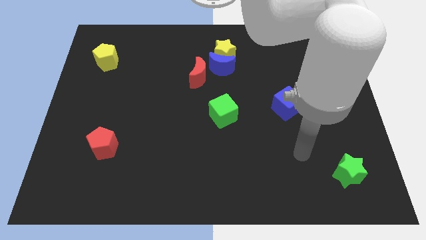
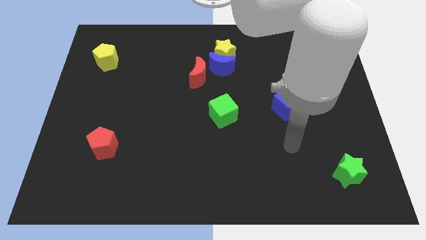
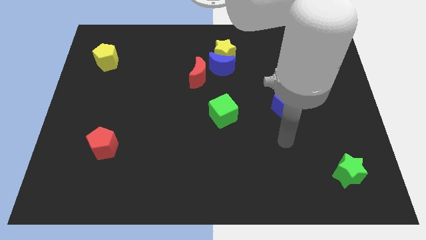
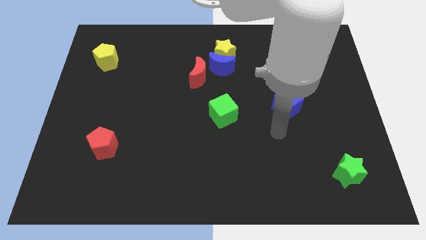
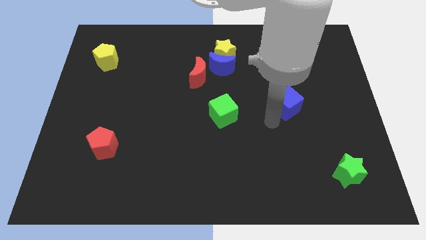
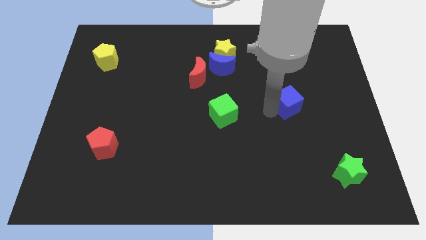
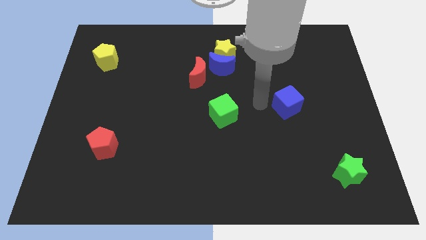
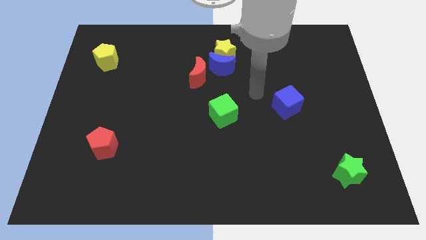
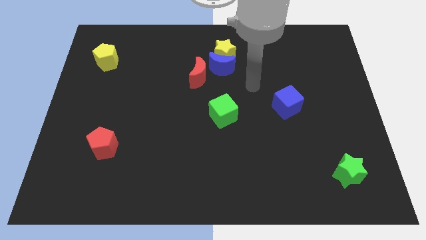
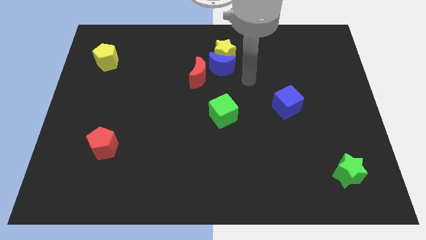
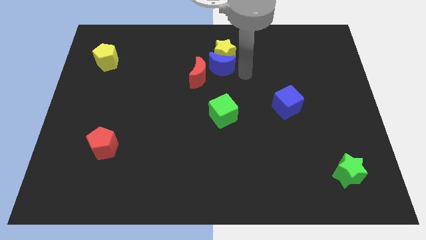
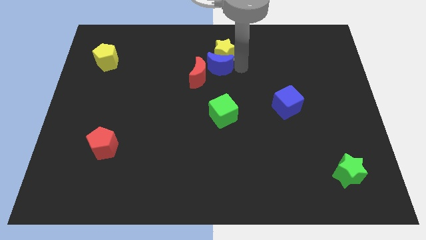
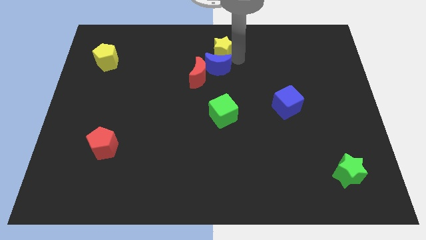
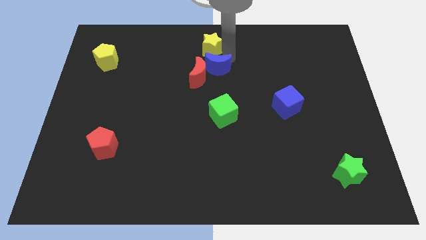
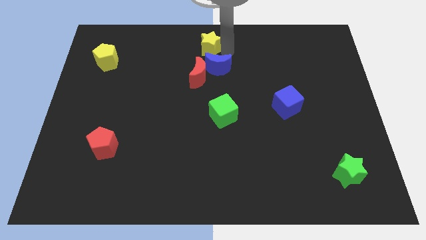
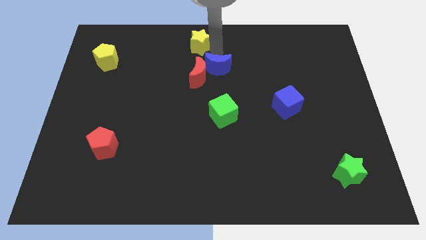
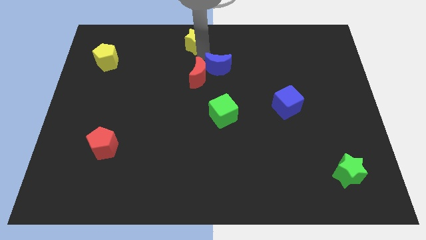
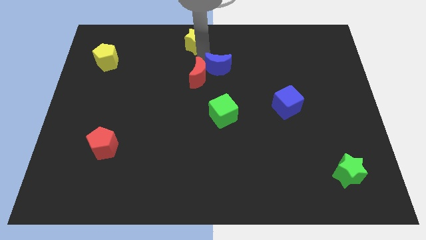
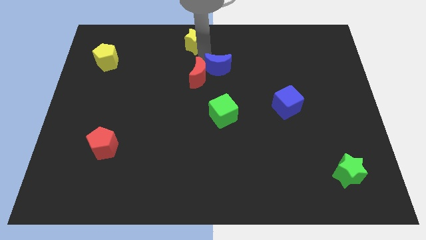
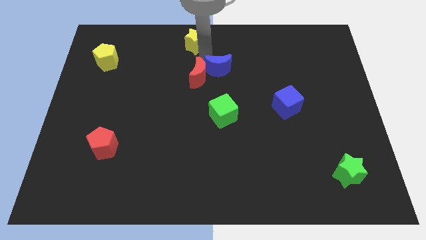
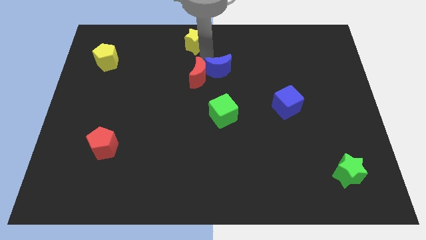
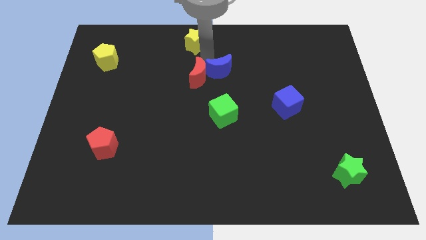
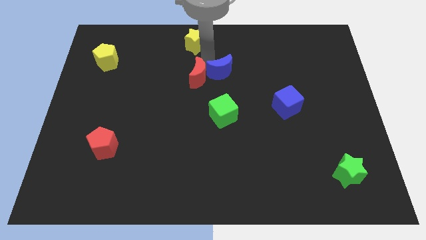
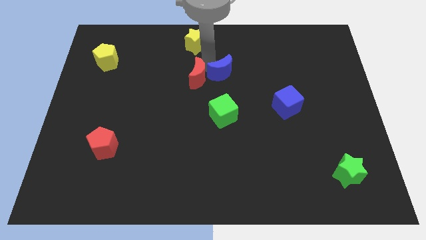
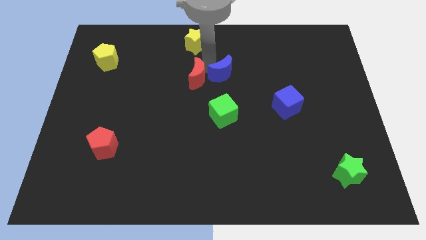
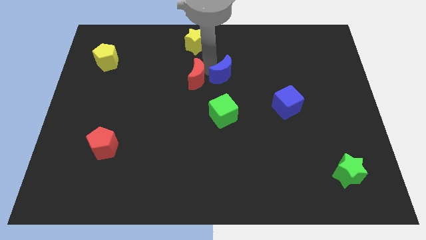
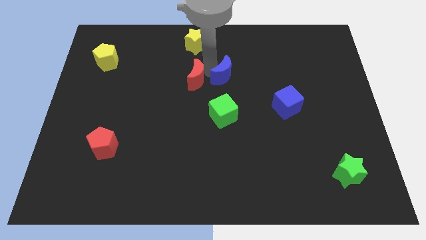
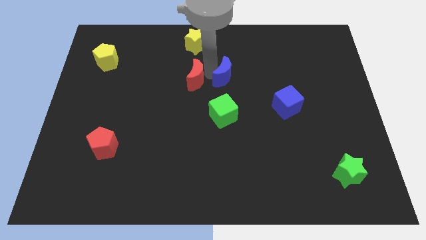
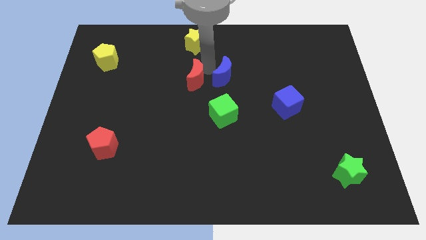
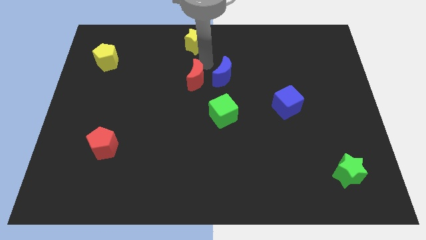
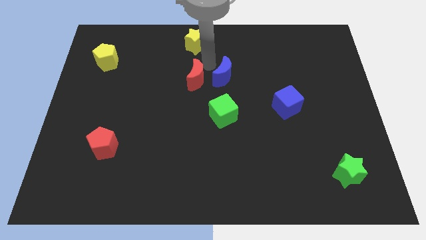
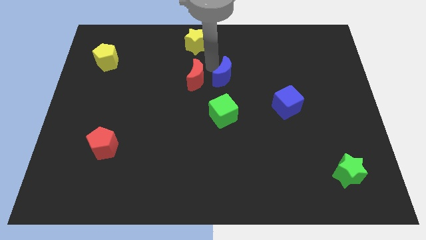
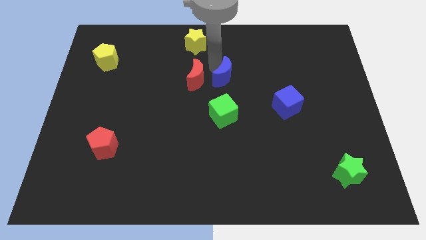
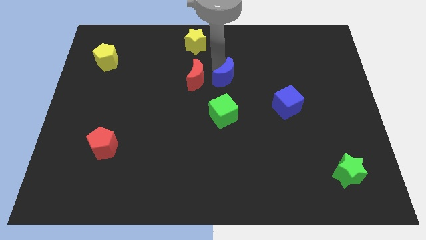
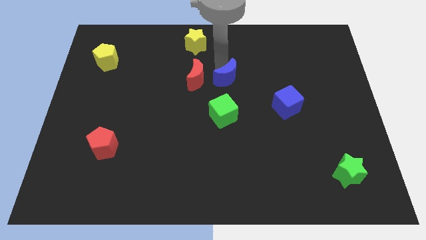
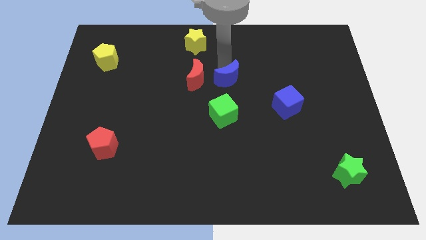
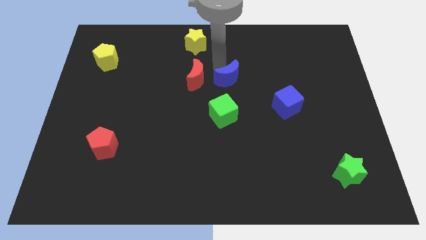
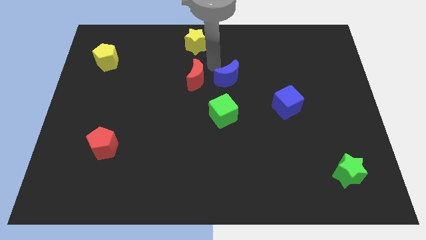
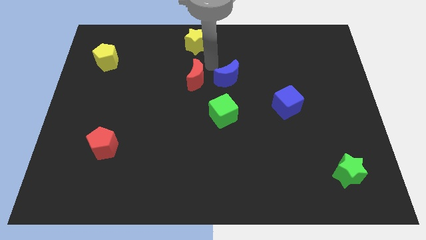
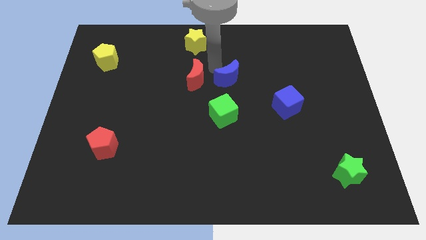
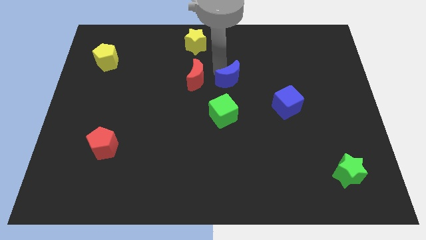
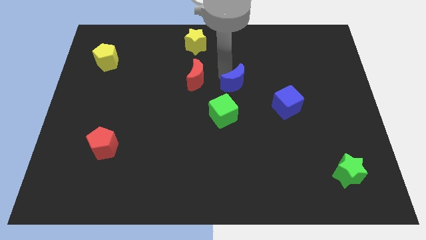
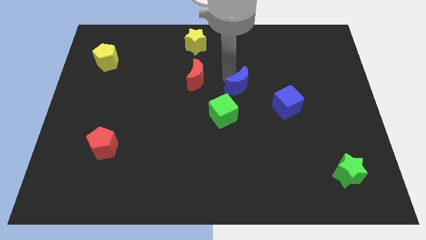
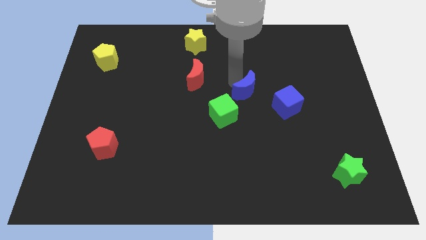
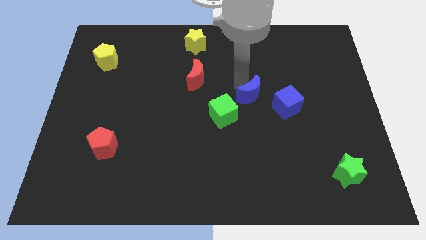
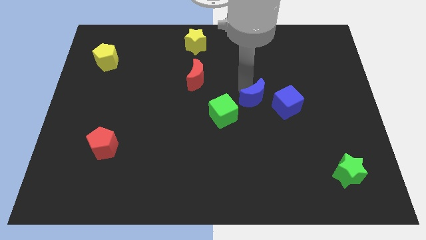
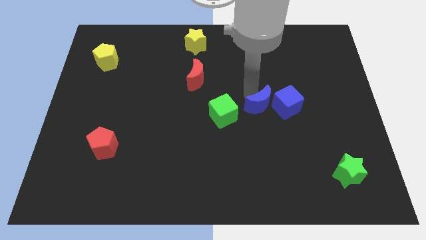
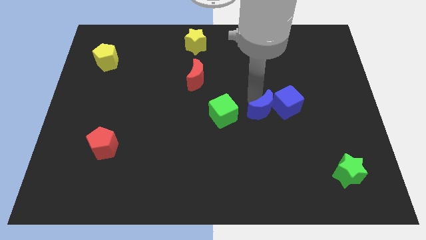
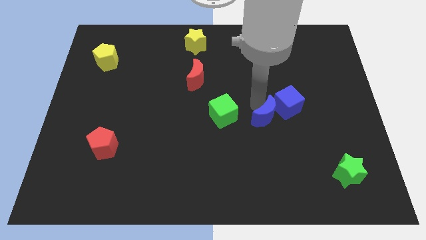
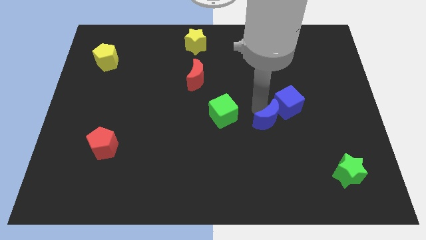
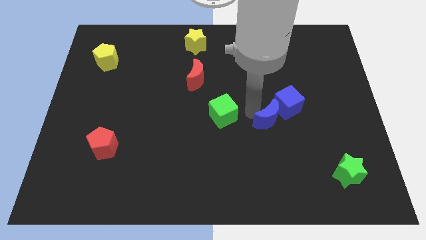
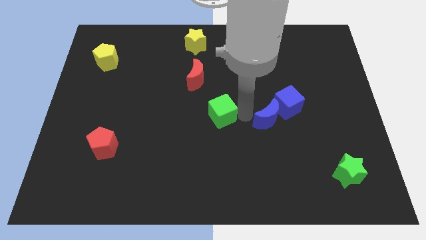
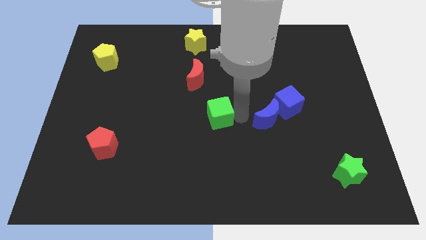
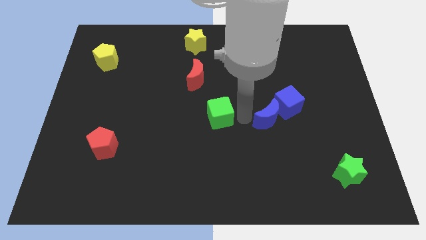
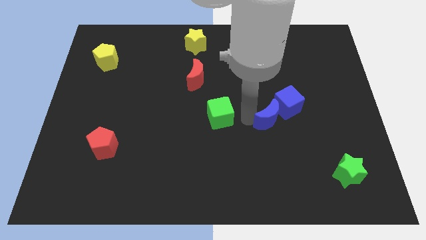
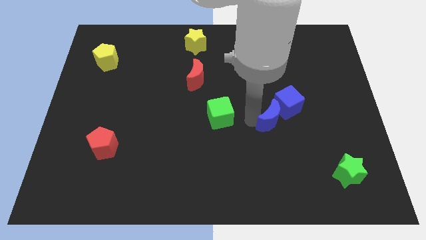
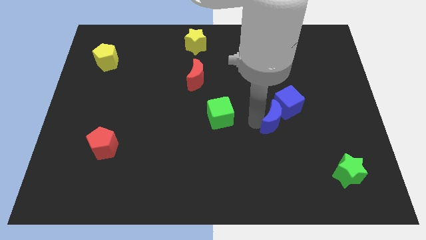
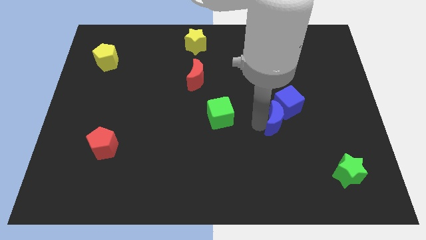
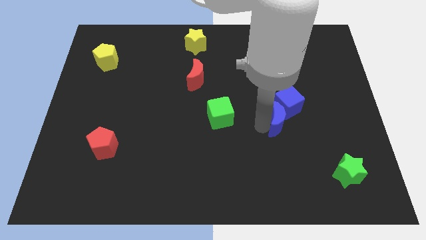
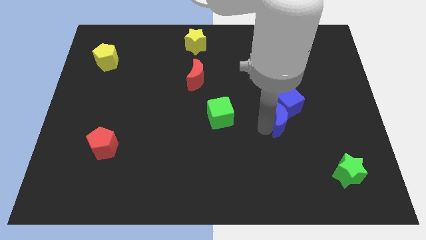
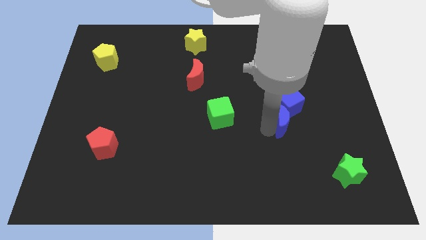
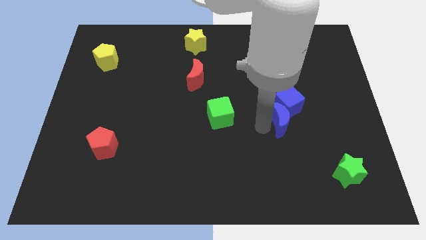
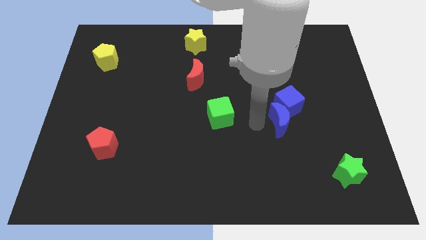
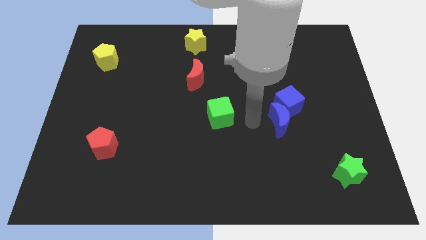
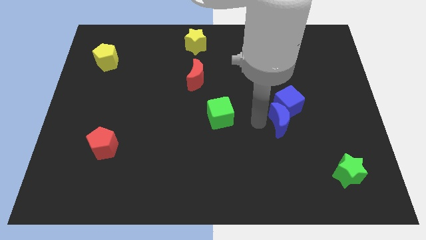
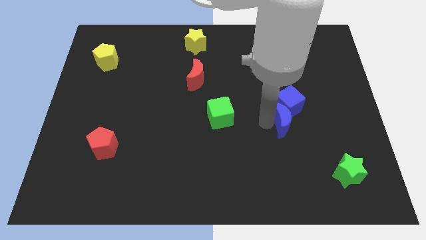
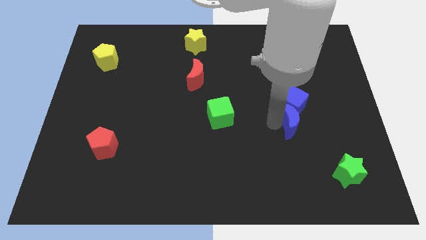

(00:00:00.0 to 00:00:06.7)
slide the blue moon to the bottom right of the blue cube

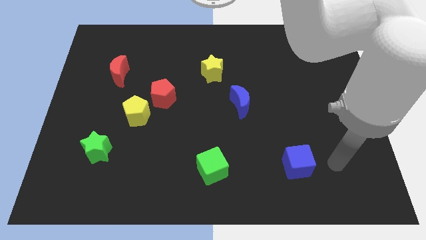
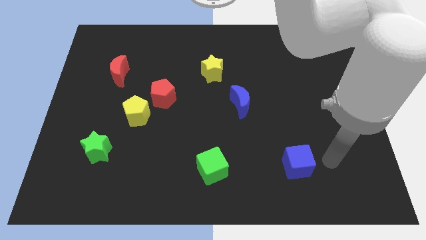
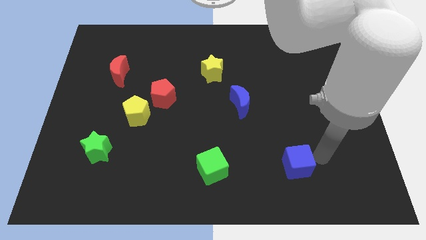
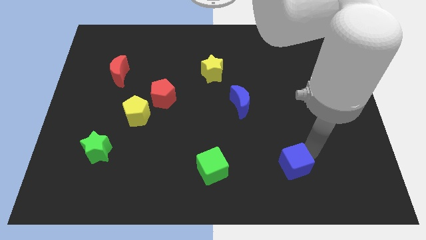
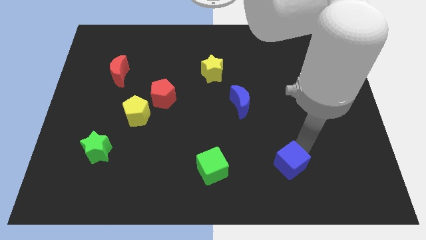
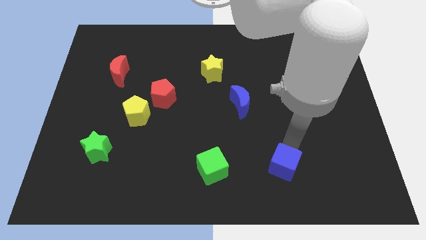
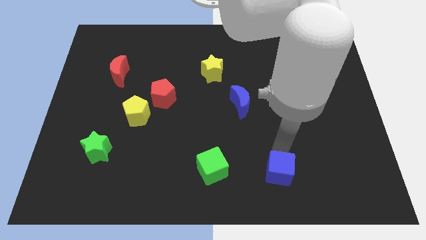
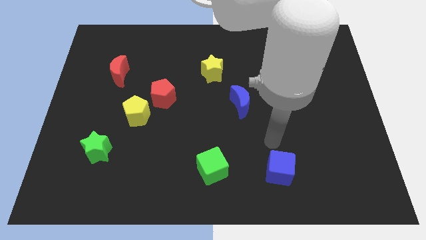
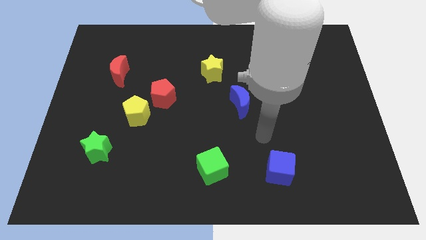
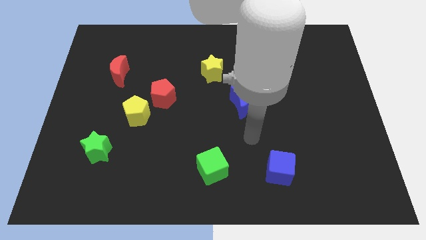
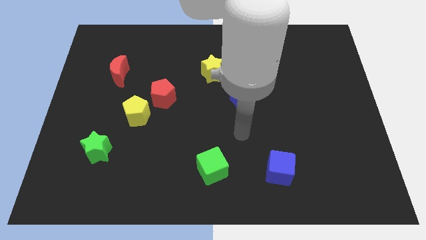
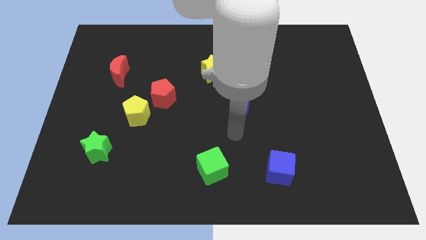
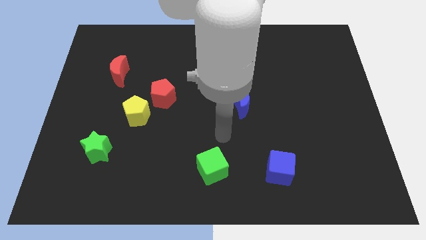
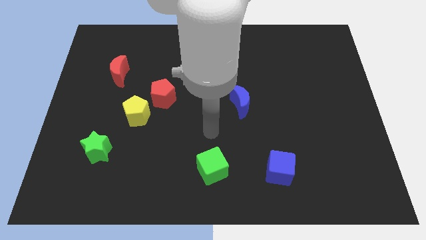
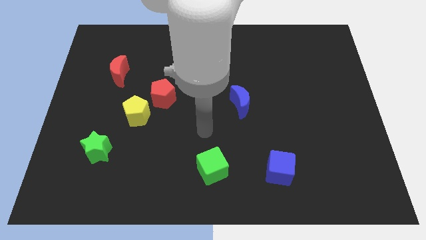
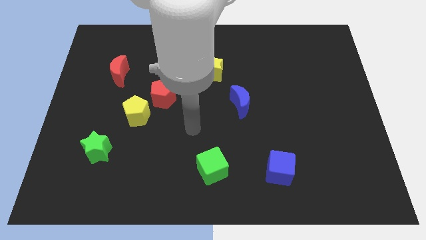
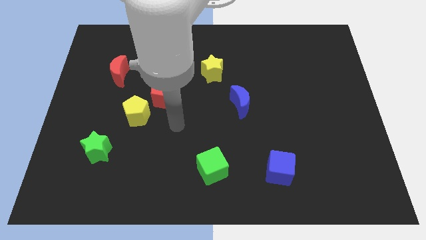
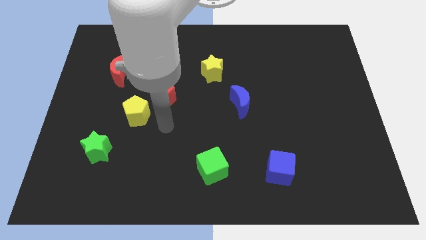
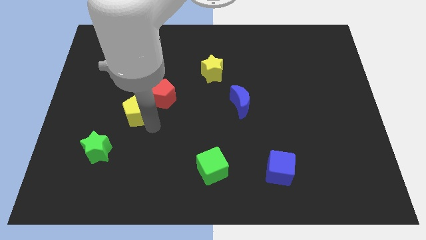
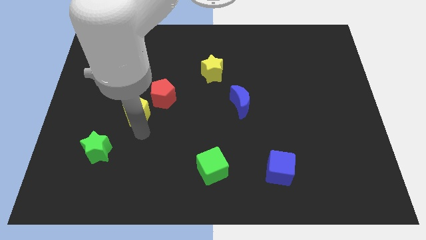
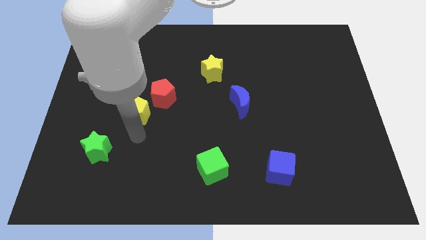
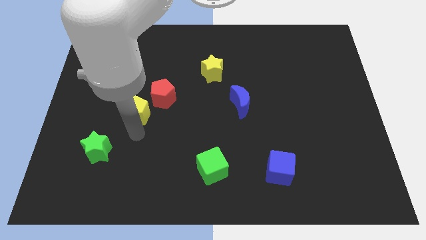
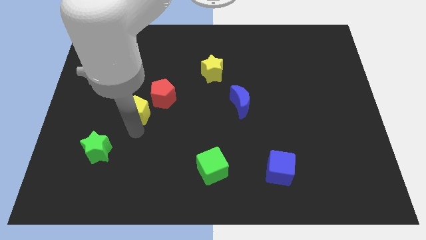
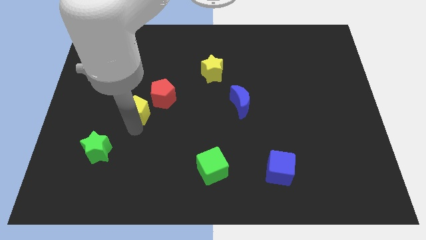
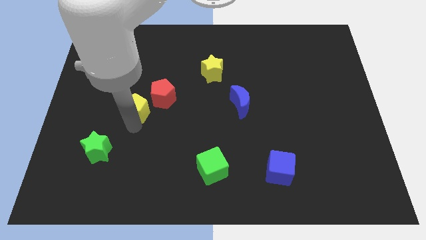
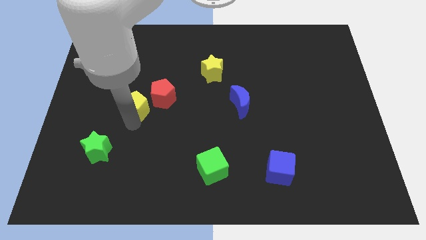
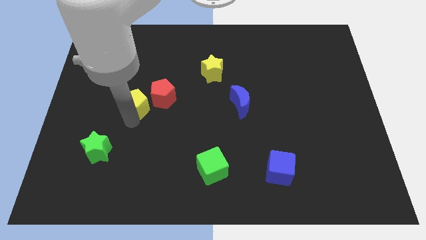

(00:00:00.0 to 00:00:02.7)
put the yellow pentagon diagonally down and to the right of the red moon
